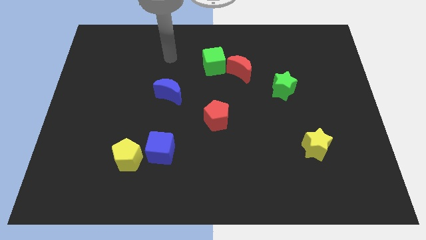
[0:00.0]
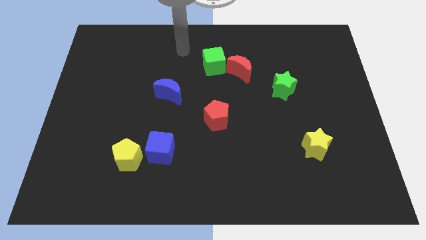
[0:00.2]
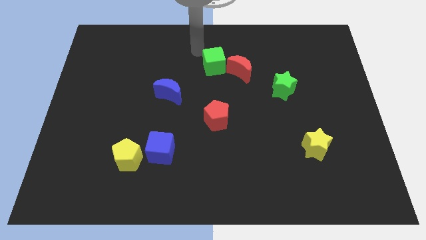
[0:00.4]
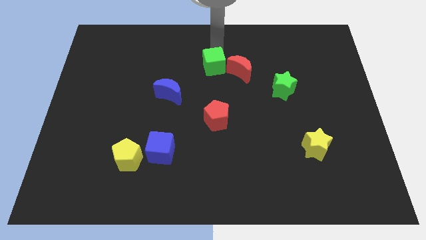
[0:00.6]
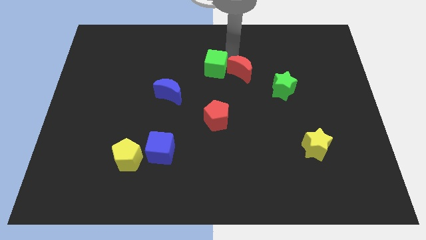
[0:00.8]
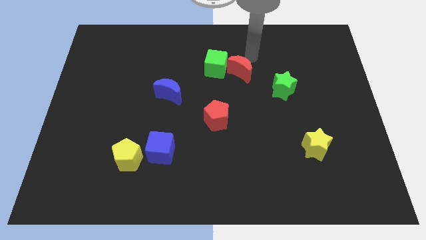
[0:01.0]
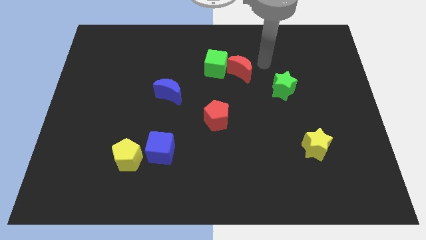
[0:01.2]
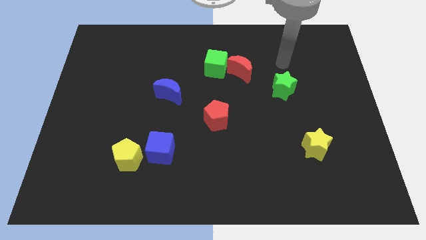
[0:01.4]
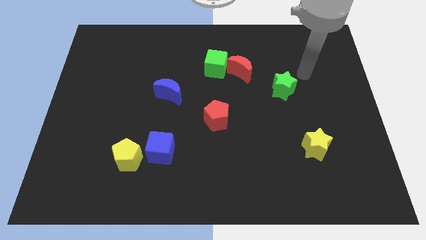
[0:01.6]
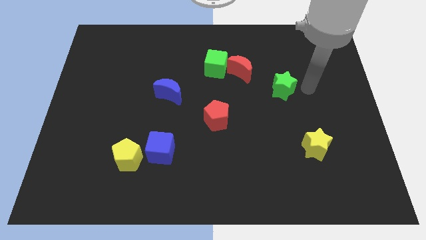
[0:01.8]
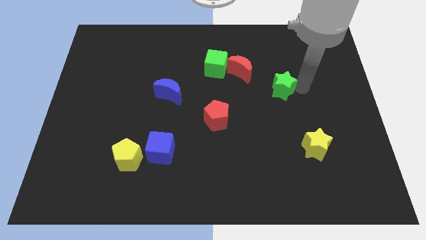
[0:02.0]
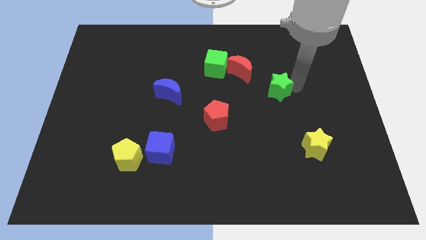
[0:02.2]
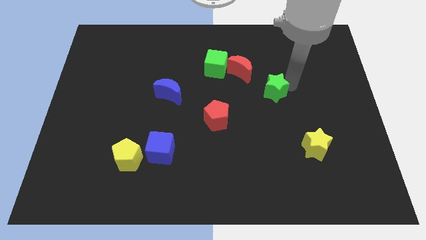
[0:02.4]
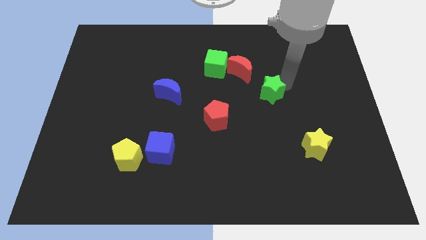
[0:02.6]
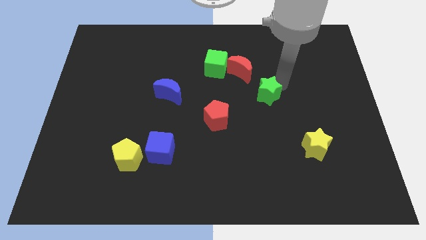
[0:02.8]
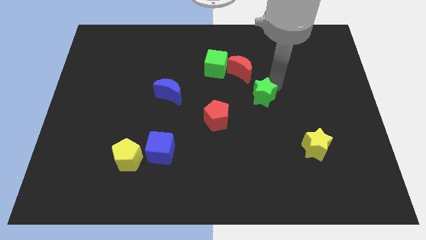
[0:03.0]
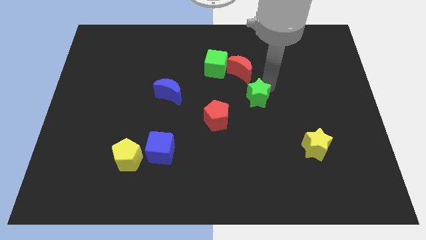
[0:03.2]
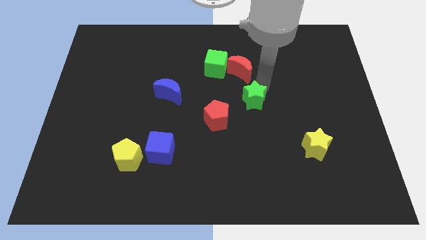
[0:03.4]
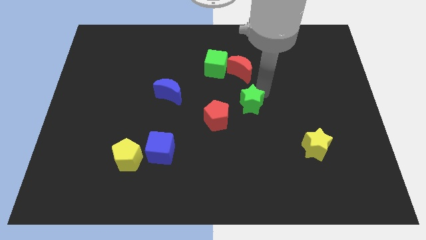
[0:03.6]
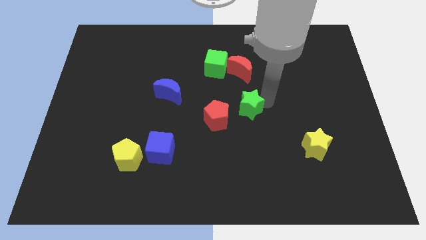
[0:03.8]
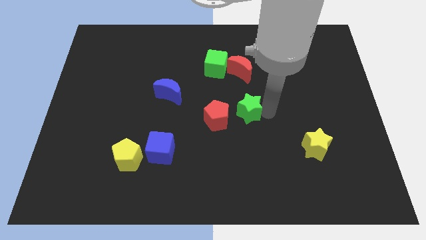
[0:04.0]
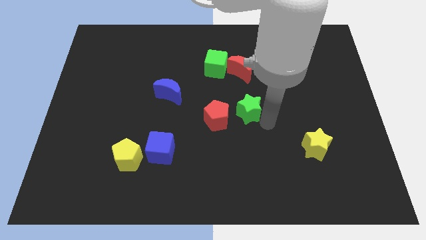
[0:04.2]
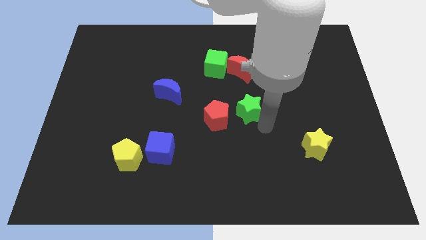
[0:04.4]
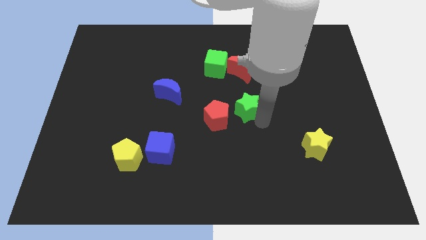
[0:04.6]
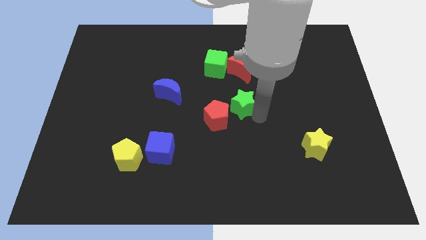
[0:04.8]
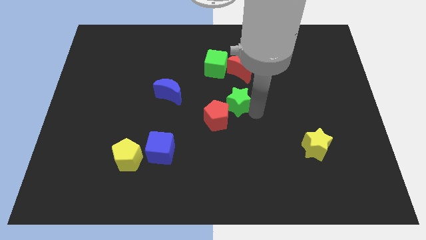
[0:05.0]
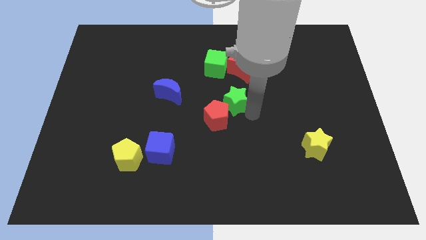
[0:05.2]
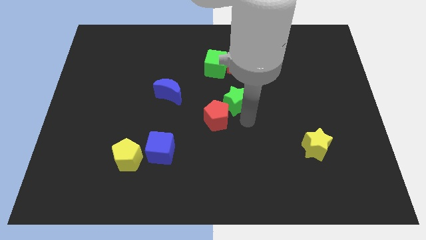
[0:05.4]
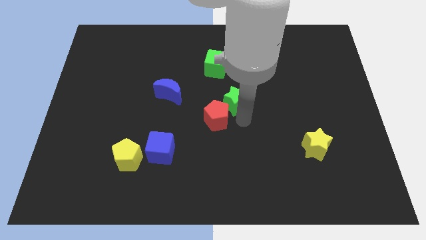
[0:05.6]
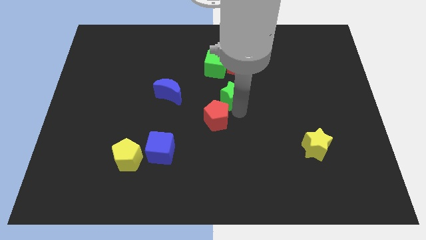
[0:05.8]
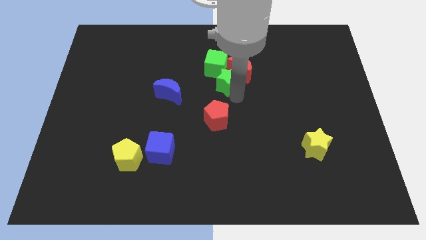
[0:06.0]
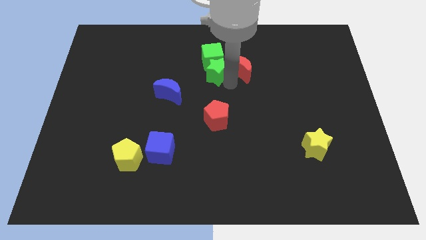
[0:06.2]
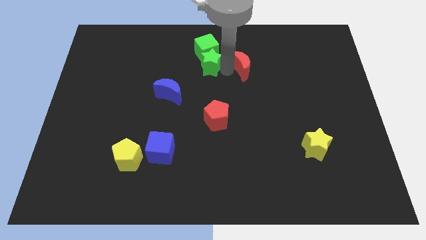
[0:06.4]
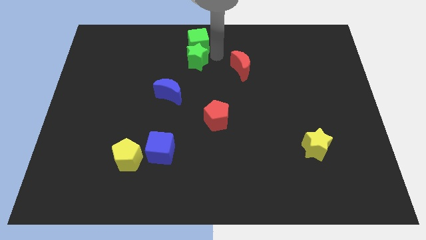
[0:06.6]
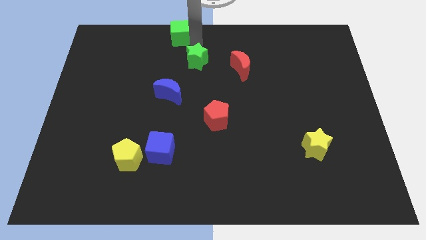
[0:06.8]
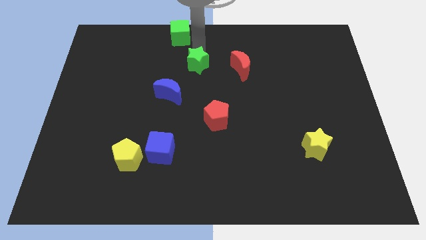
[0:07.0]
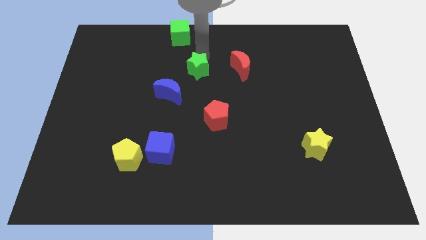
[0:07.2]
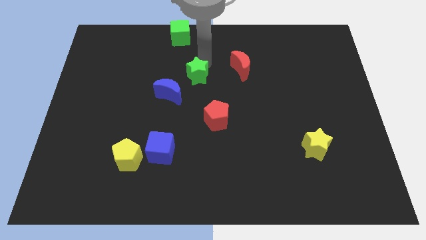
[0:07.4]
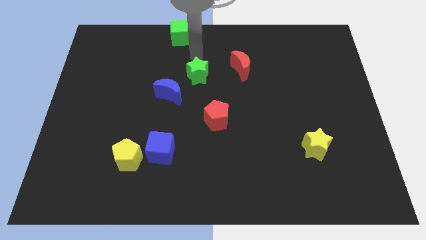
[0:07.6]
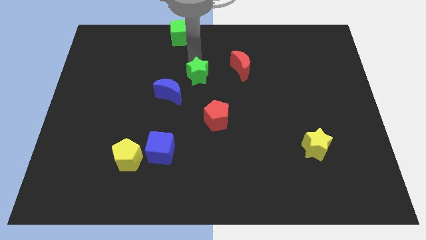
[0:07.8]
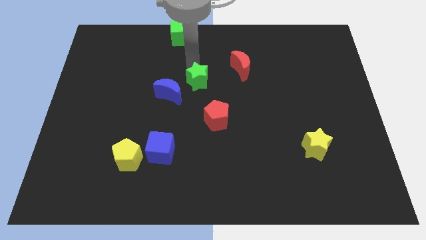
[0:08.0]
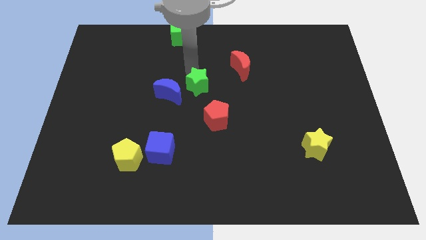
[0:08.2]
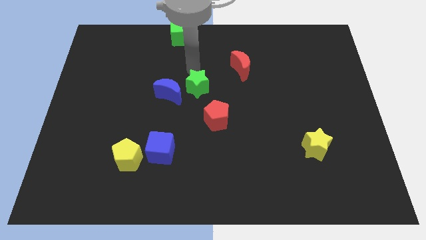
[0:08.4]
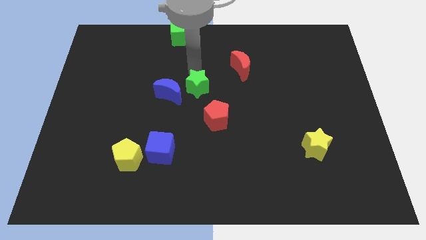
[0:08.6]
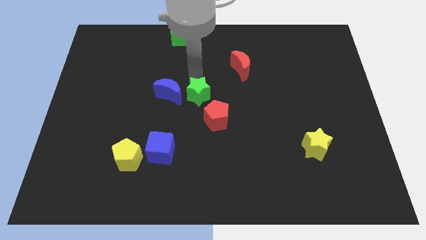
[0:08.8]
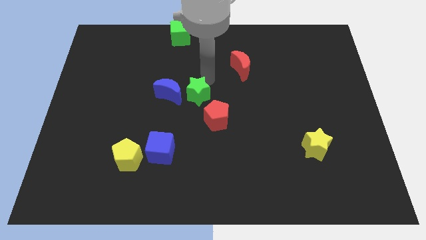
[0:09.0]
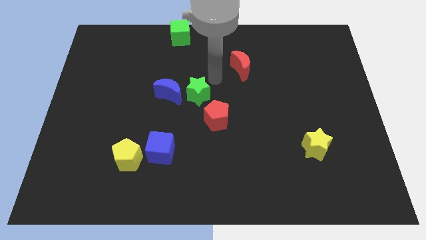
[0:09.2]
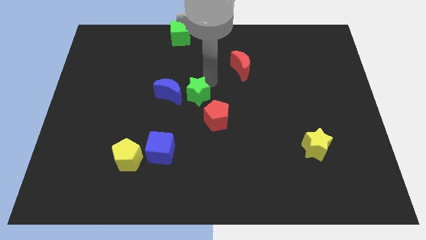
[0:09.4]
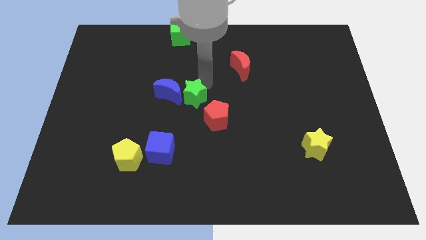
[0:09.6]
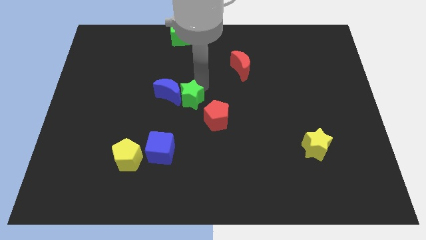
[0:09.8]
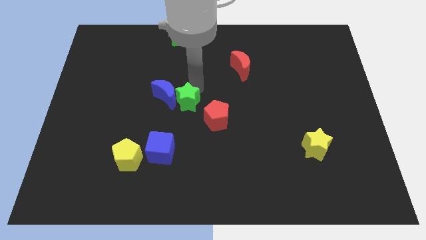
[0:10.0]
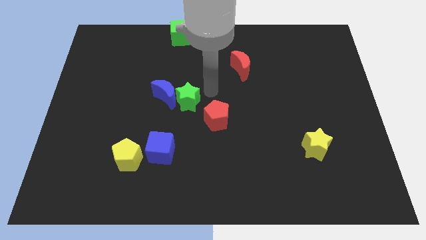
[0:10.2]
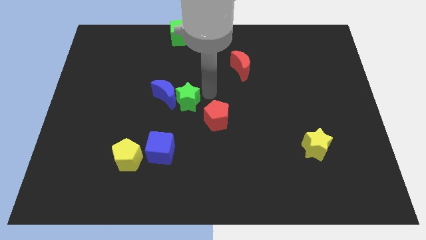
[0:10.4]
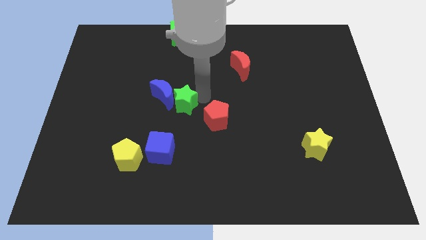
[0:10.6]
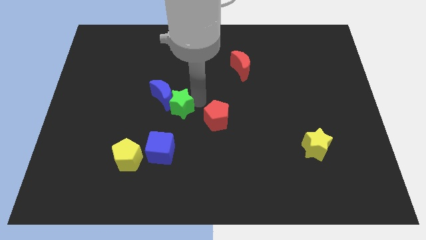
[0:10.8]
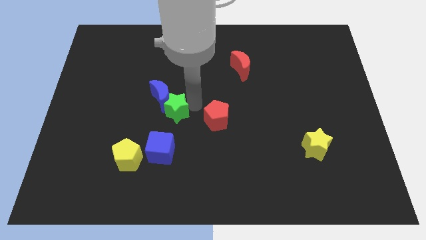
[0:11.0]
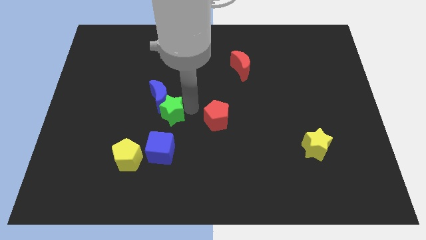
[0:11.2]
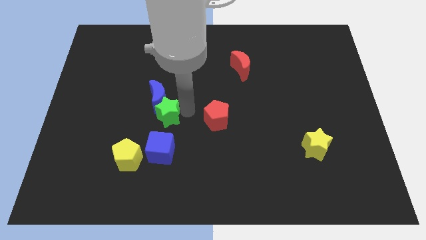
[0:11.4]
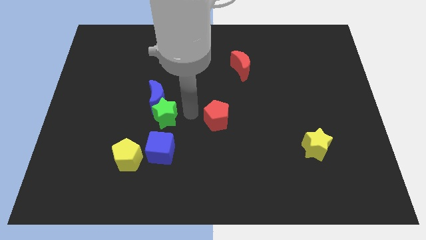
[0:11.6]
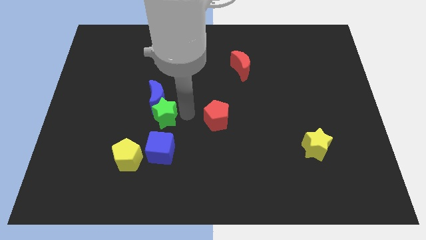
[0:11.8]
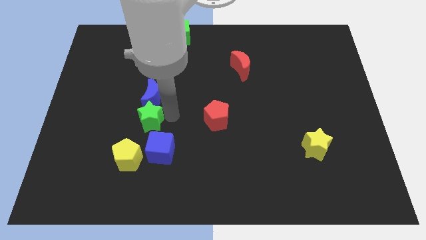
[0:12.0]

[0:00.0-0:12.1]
push the green star to the top of the yellow pentagon

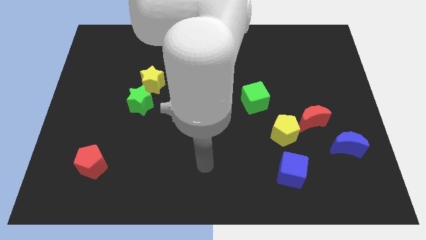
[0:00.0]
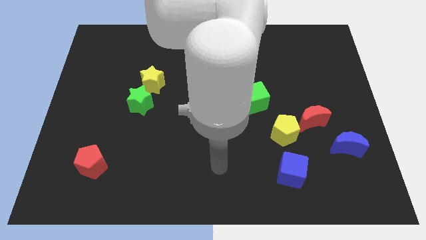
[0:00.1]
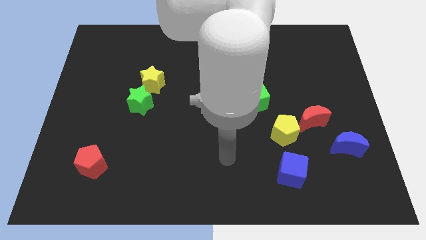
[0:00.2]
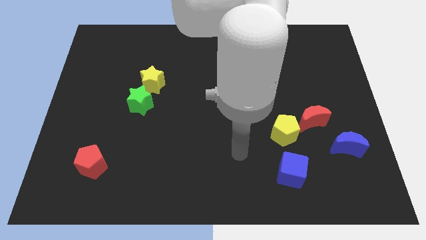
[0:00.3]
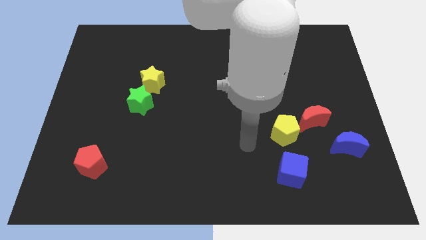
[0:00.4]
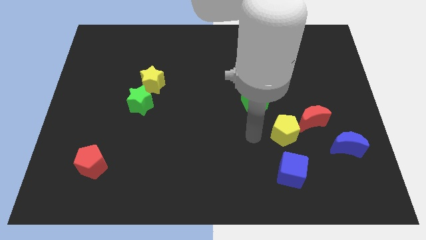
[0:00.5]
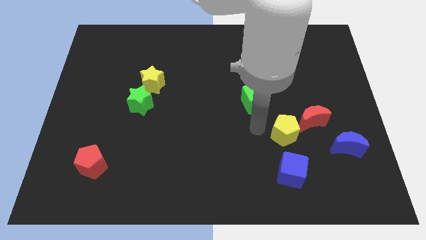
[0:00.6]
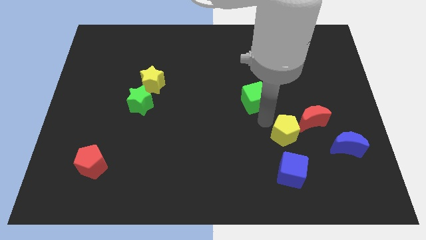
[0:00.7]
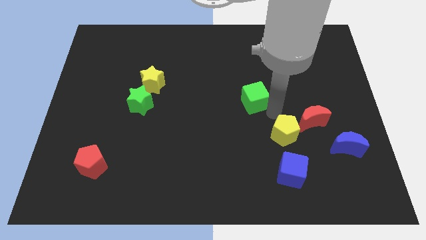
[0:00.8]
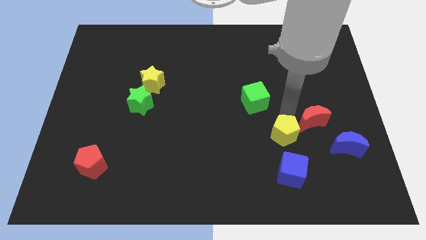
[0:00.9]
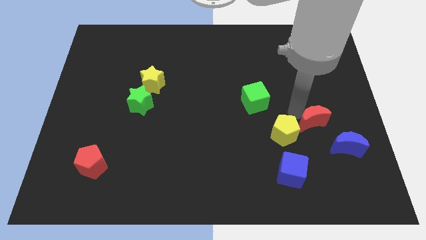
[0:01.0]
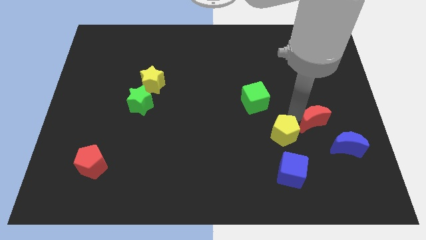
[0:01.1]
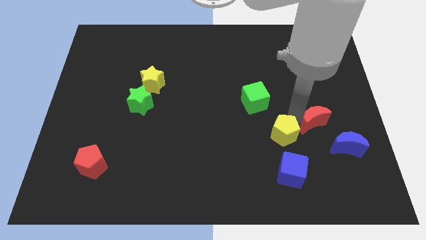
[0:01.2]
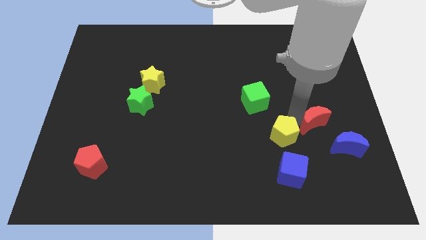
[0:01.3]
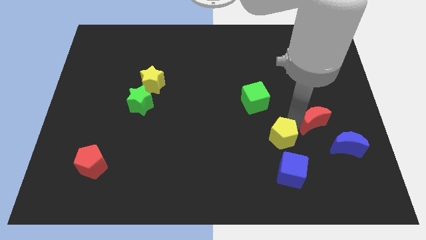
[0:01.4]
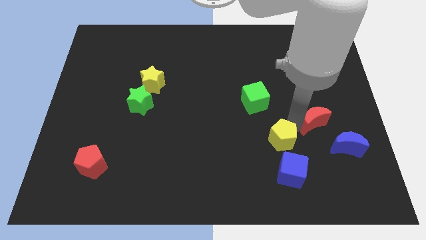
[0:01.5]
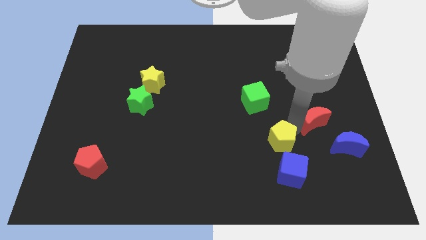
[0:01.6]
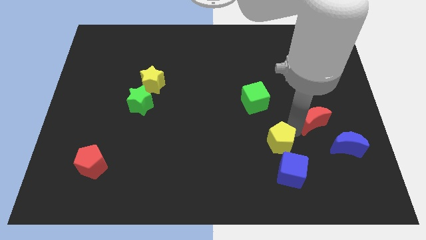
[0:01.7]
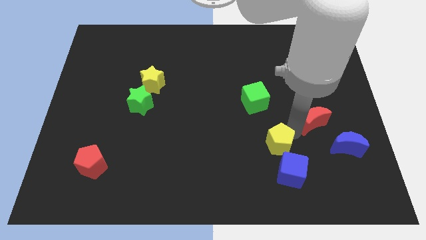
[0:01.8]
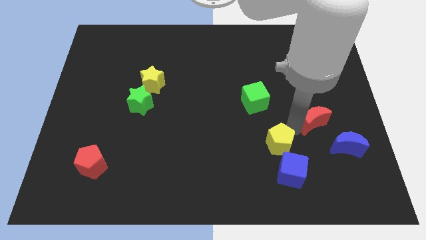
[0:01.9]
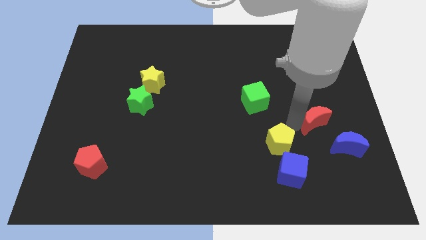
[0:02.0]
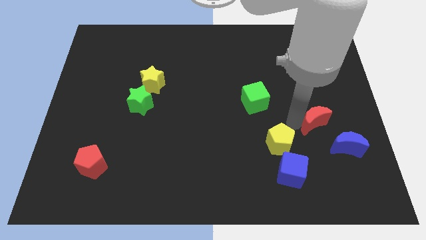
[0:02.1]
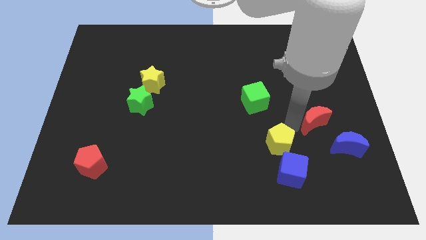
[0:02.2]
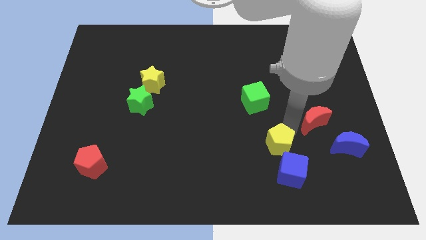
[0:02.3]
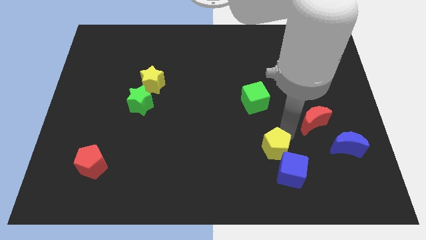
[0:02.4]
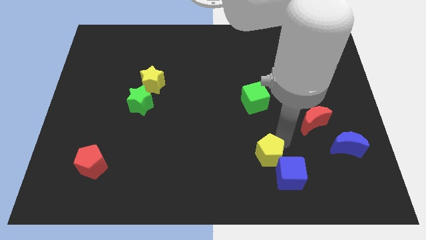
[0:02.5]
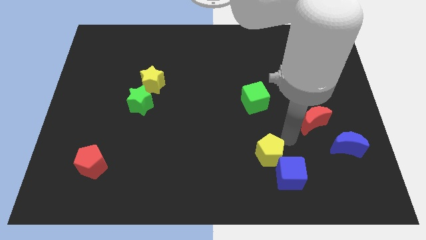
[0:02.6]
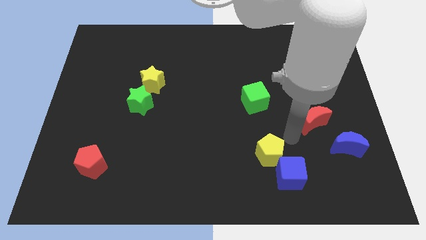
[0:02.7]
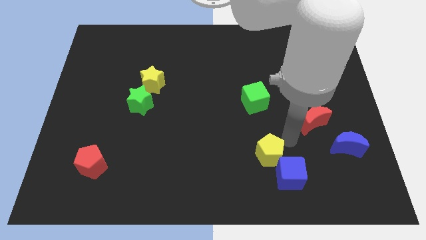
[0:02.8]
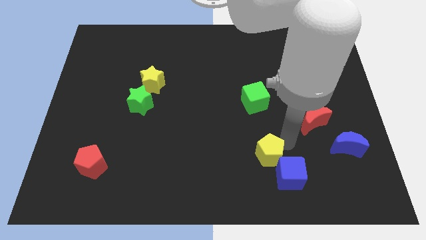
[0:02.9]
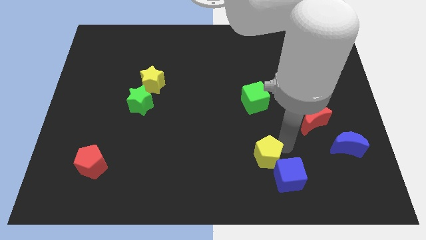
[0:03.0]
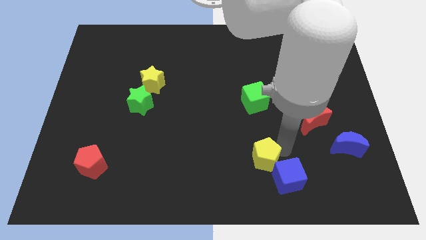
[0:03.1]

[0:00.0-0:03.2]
push the yellow pentagon just left of the blue cube
